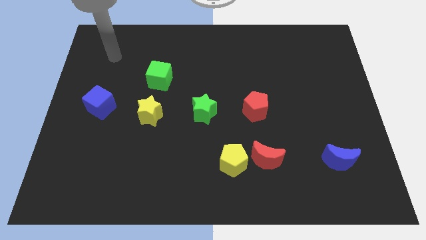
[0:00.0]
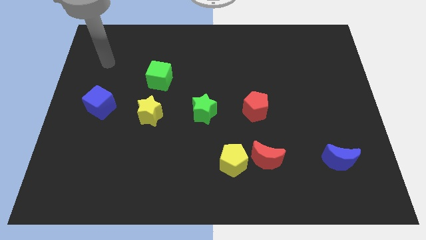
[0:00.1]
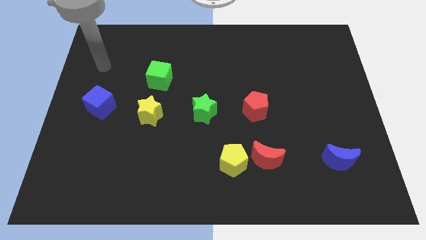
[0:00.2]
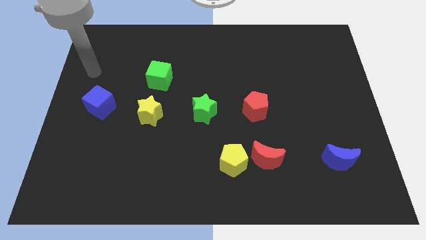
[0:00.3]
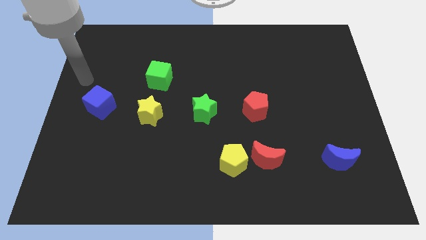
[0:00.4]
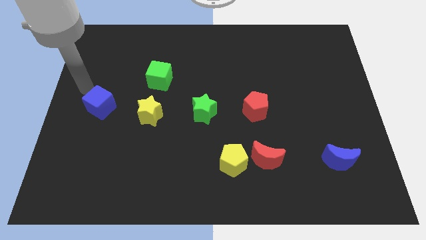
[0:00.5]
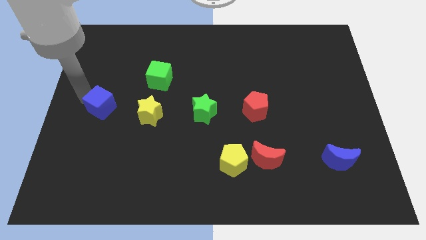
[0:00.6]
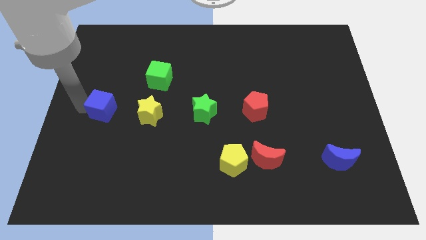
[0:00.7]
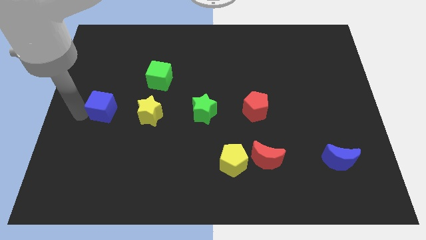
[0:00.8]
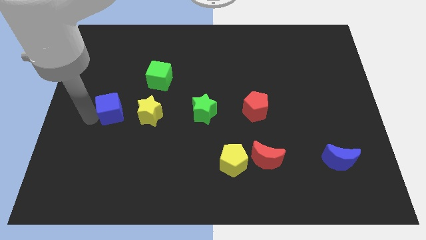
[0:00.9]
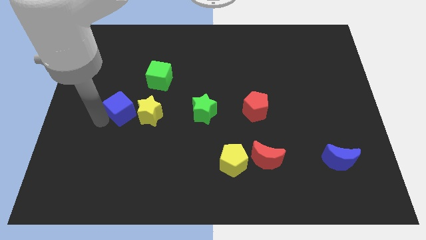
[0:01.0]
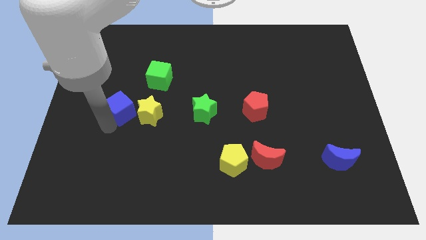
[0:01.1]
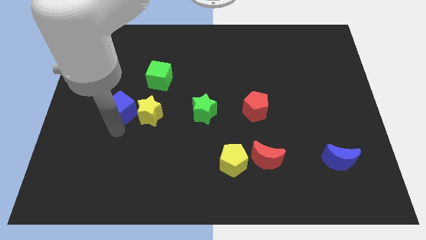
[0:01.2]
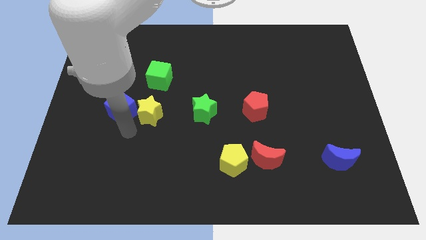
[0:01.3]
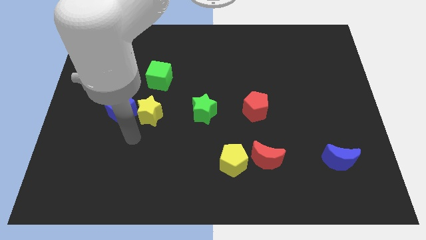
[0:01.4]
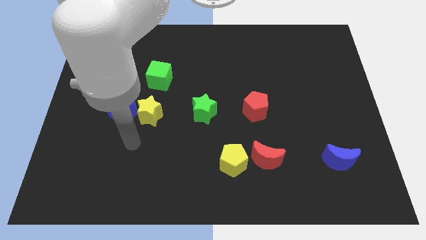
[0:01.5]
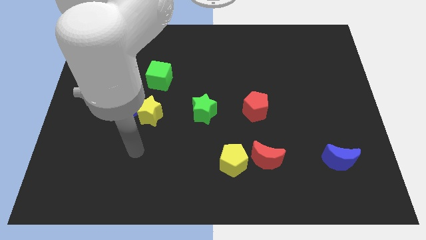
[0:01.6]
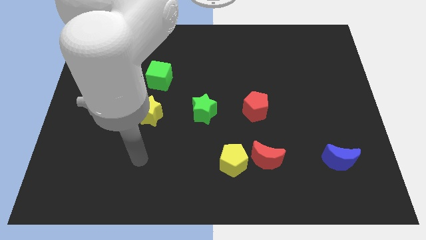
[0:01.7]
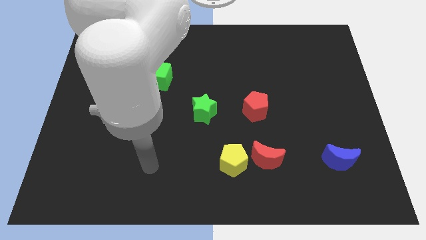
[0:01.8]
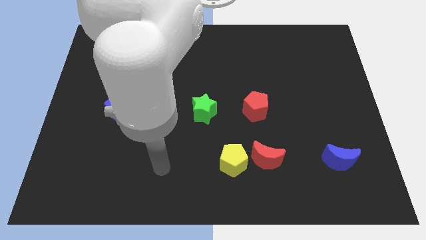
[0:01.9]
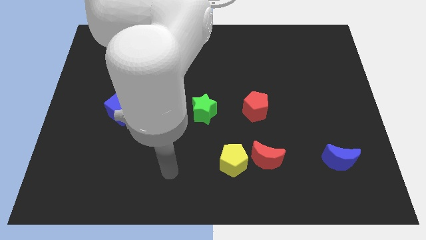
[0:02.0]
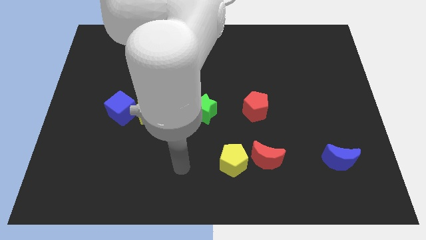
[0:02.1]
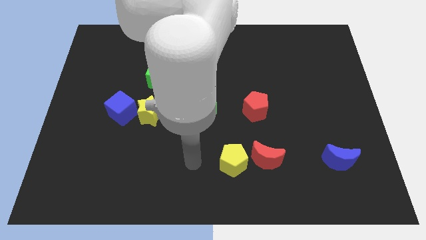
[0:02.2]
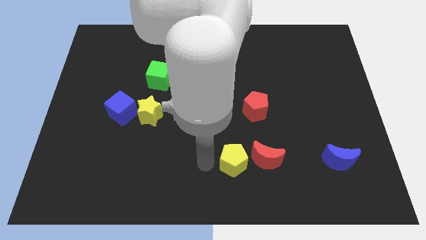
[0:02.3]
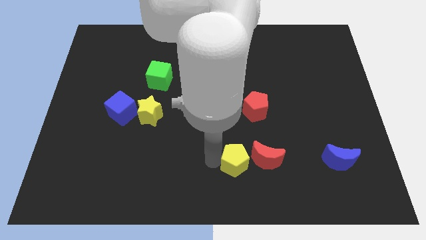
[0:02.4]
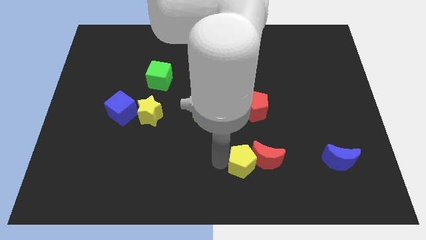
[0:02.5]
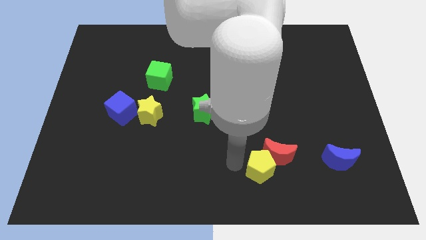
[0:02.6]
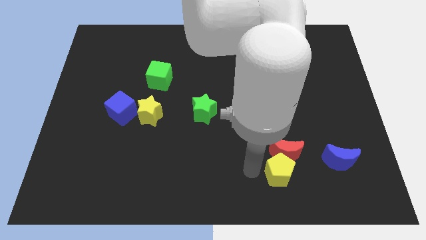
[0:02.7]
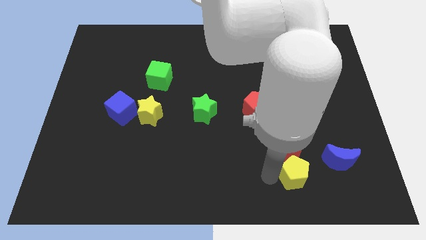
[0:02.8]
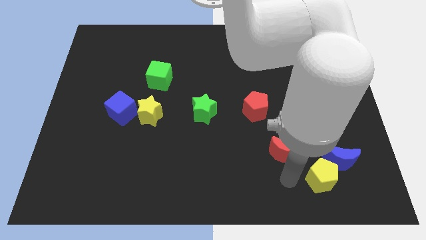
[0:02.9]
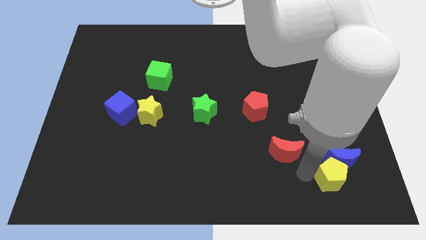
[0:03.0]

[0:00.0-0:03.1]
pull the red moon apart from the yellow pentagon

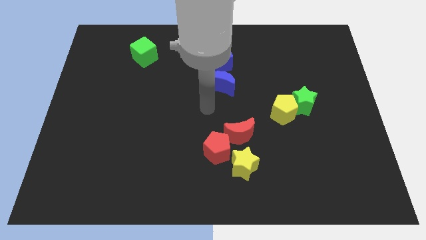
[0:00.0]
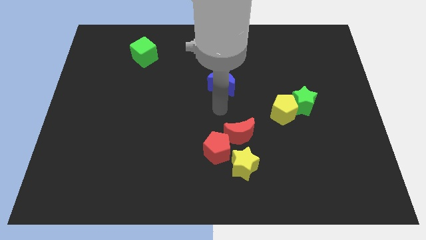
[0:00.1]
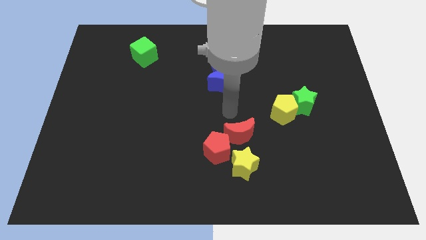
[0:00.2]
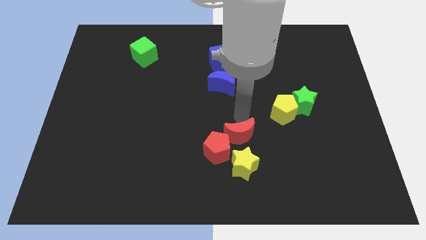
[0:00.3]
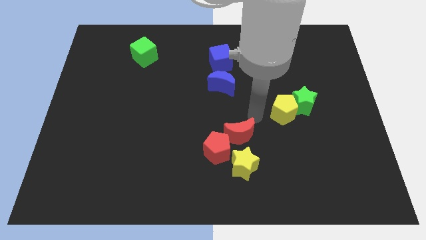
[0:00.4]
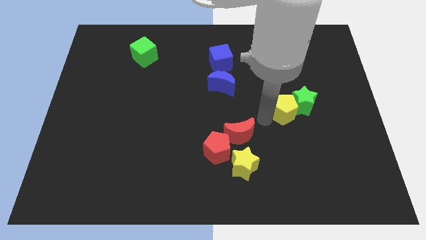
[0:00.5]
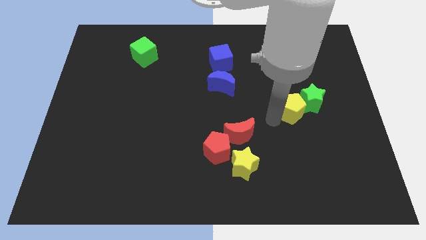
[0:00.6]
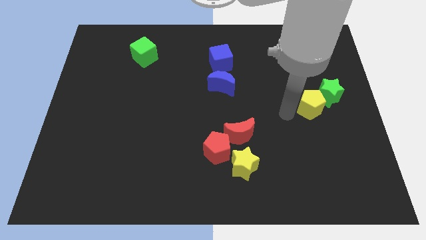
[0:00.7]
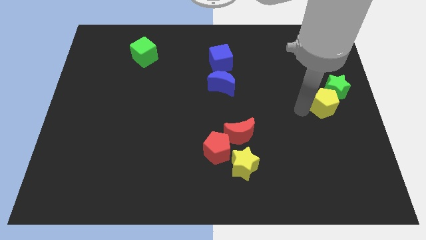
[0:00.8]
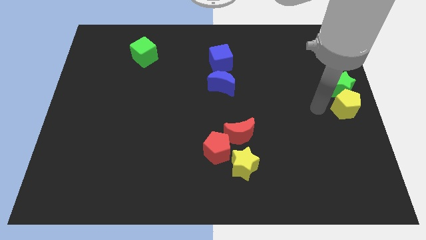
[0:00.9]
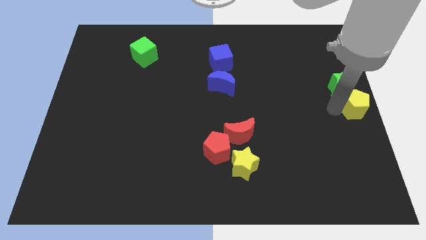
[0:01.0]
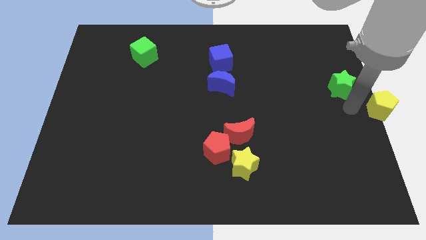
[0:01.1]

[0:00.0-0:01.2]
move the green star away from the yellow pentagon

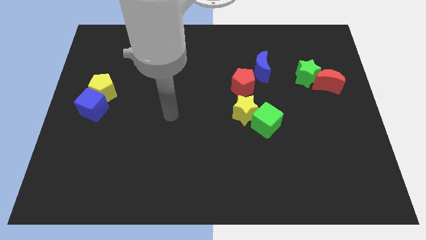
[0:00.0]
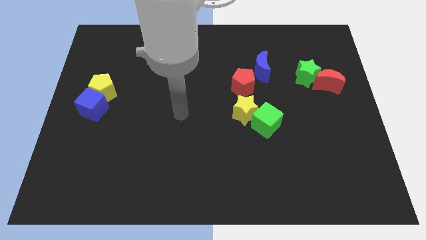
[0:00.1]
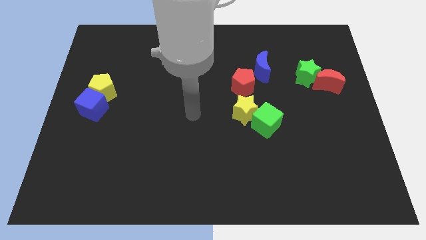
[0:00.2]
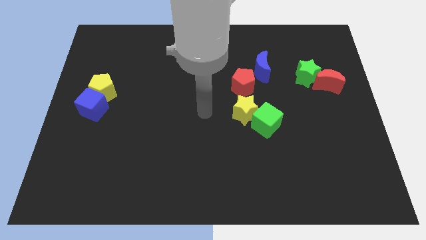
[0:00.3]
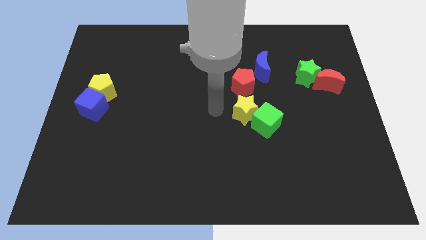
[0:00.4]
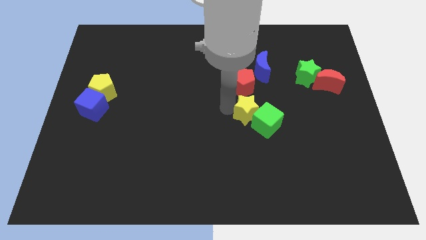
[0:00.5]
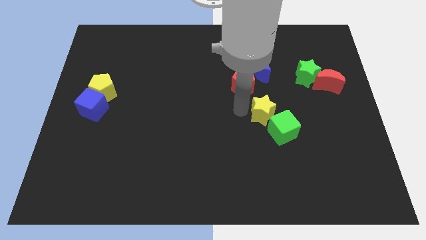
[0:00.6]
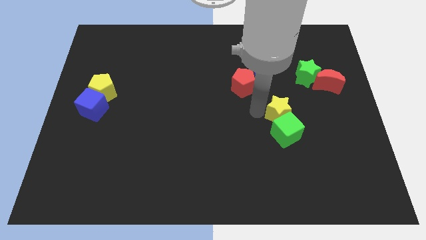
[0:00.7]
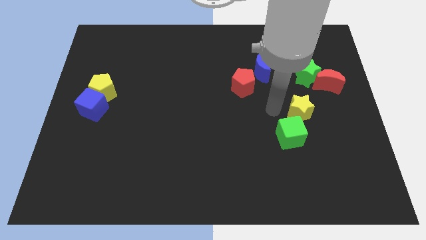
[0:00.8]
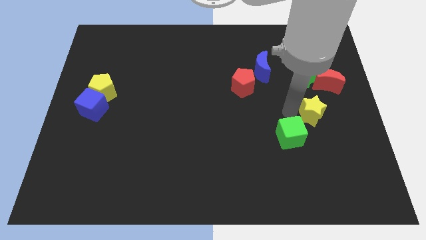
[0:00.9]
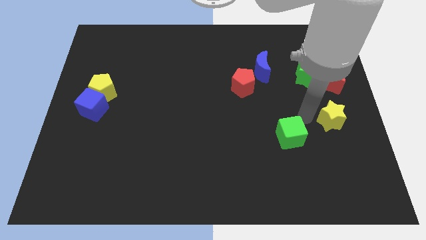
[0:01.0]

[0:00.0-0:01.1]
move the green cube away from the yellow star

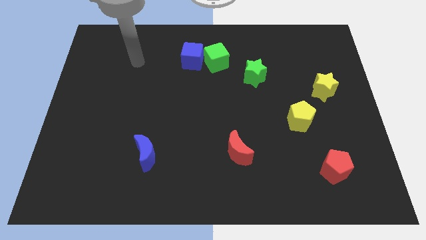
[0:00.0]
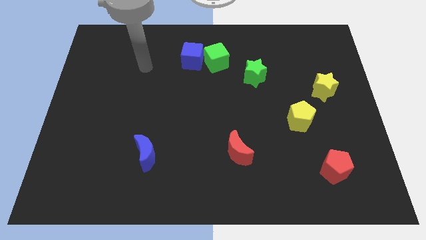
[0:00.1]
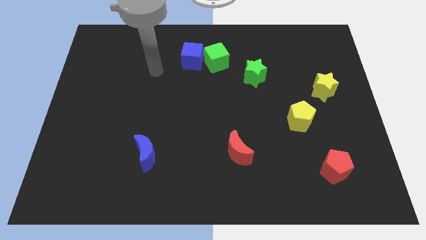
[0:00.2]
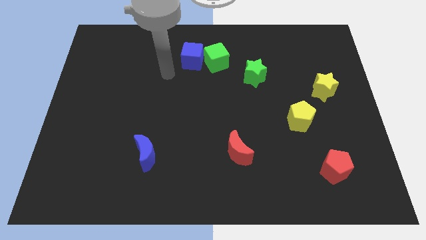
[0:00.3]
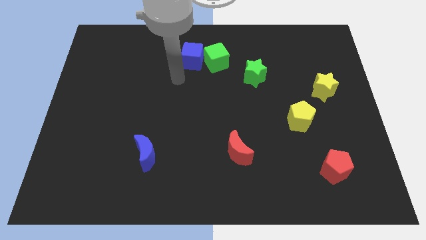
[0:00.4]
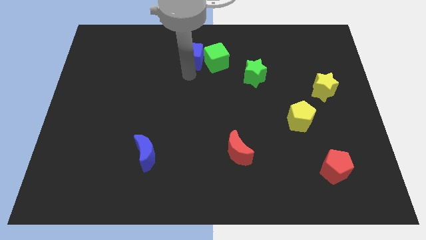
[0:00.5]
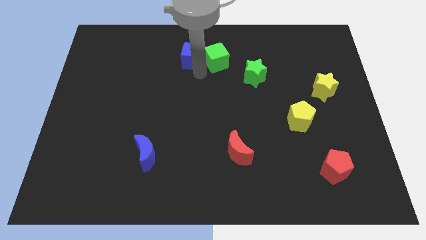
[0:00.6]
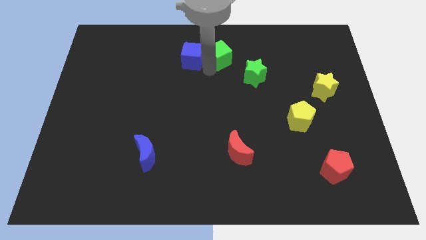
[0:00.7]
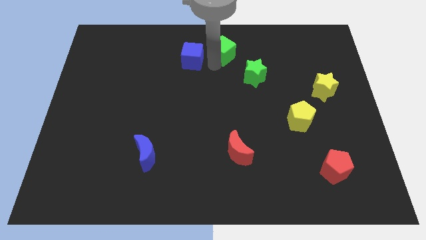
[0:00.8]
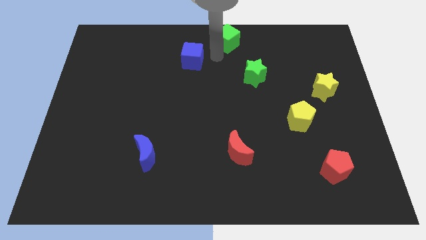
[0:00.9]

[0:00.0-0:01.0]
pull the blue cube apart from the green cube

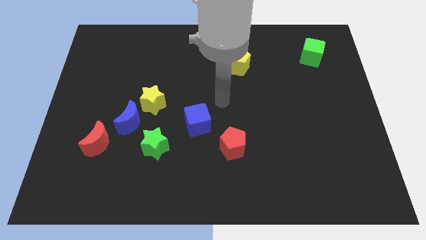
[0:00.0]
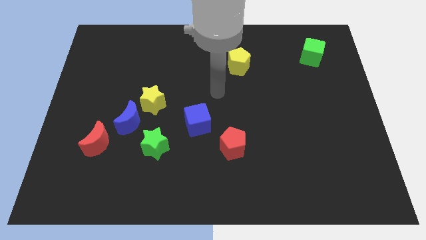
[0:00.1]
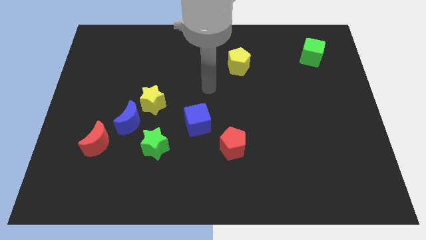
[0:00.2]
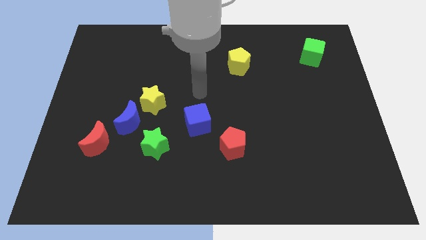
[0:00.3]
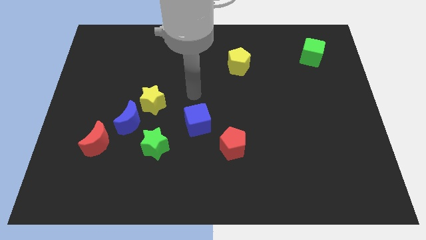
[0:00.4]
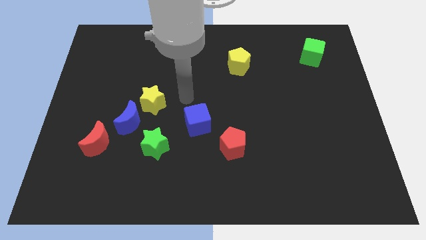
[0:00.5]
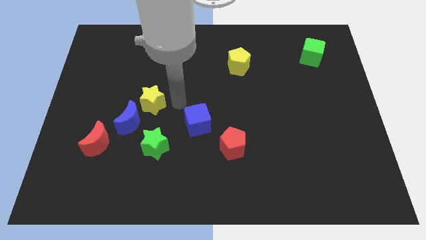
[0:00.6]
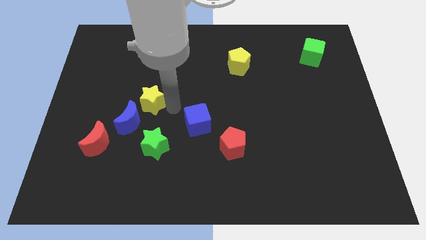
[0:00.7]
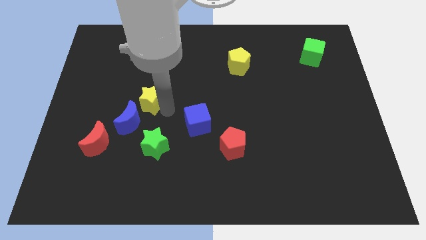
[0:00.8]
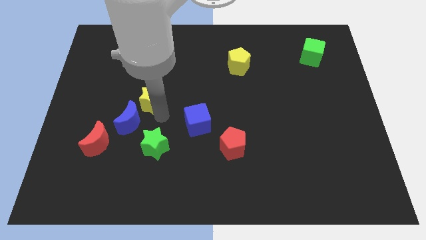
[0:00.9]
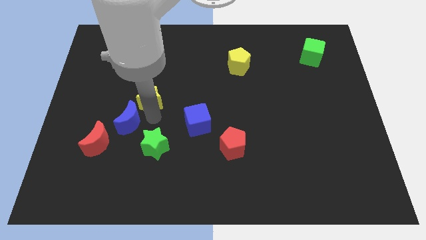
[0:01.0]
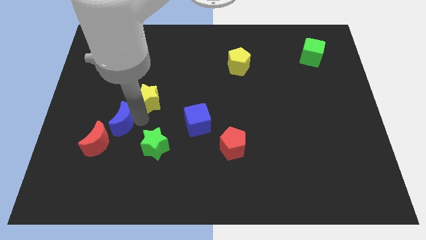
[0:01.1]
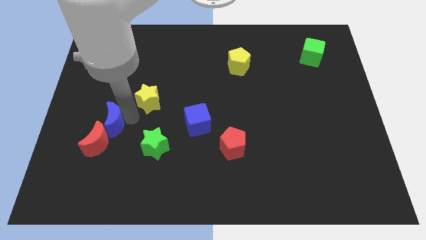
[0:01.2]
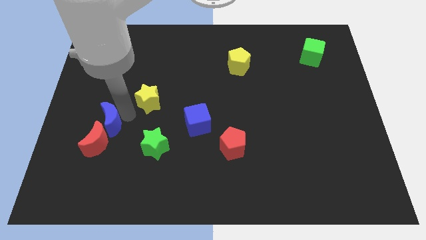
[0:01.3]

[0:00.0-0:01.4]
pull the yellow star apart from the blue moon

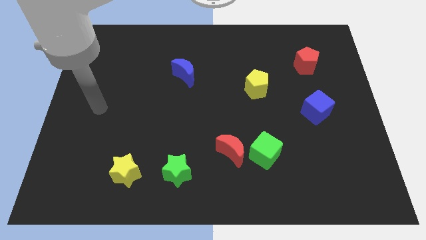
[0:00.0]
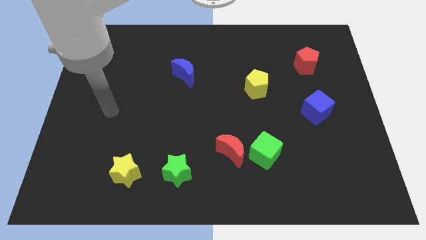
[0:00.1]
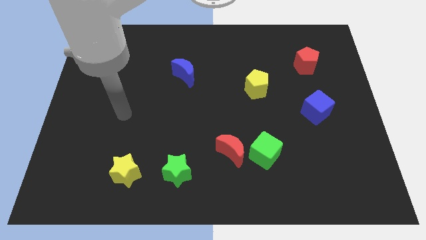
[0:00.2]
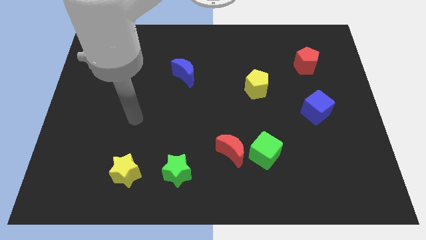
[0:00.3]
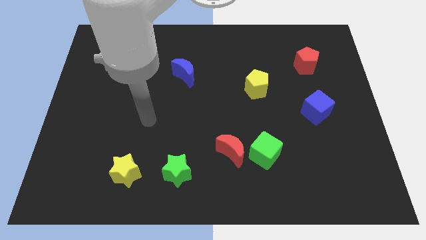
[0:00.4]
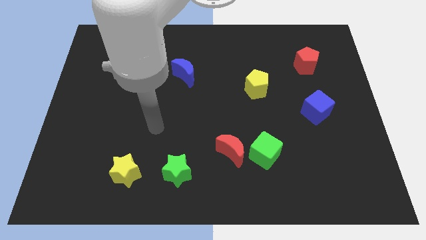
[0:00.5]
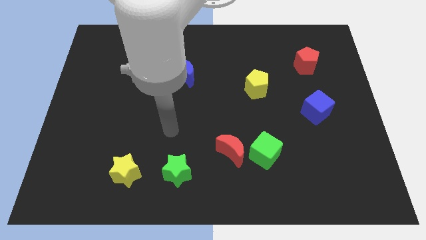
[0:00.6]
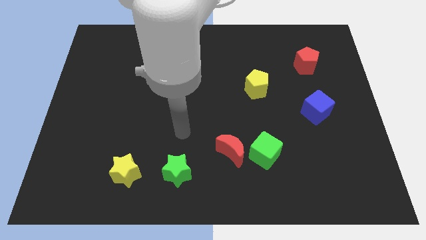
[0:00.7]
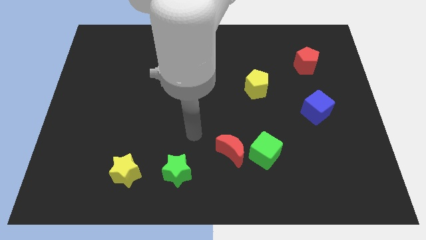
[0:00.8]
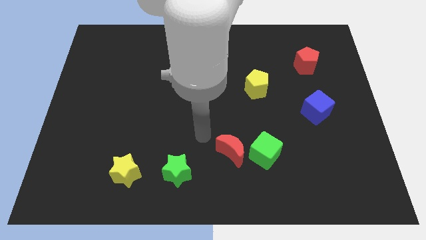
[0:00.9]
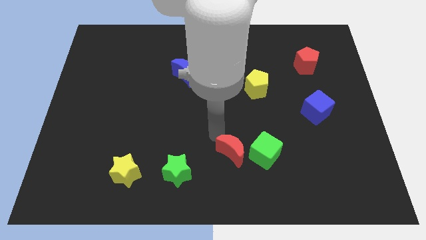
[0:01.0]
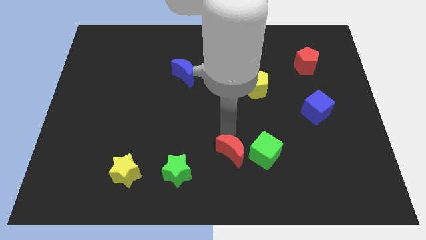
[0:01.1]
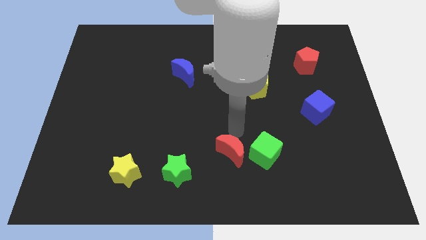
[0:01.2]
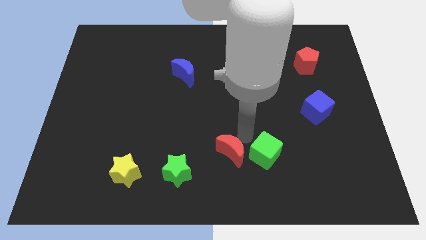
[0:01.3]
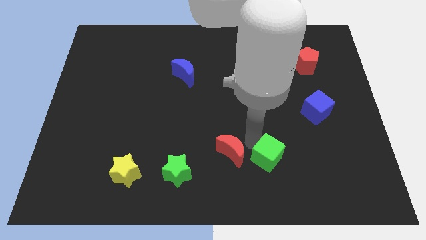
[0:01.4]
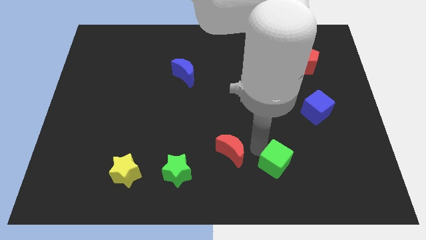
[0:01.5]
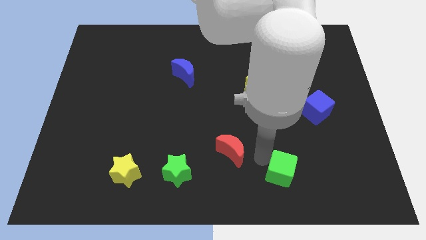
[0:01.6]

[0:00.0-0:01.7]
pull the red moon apart from the green cube
